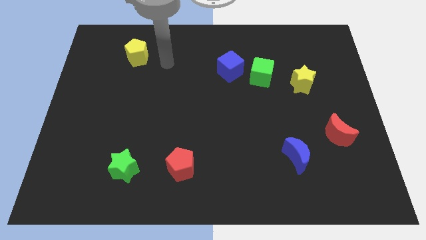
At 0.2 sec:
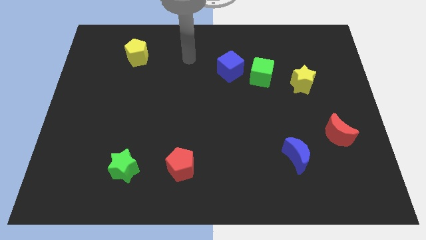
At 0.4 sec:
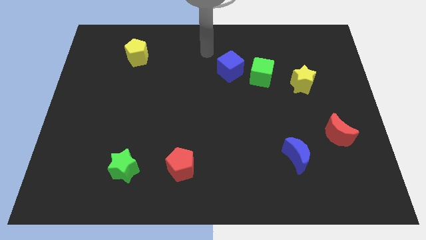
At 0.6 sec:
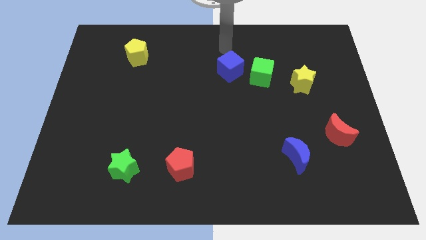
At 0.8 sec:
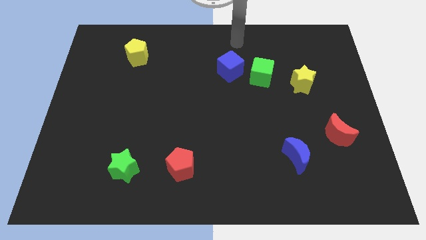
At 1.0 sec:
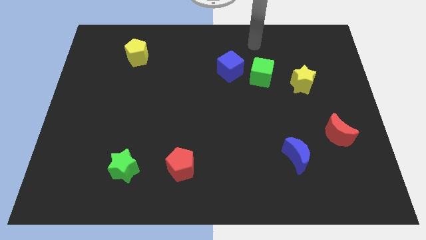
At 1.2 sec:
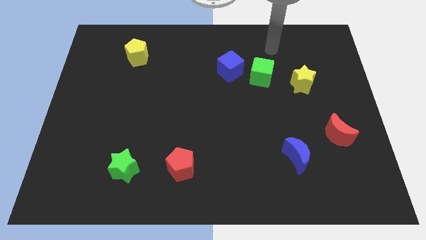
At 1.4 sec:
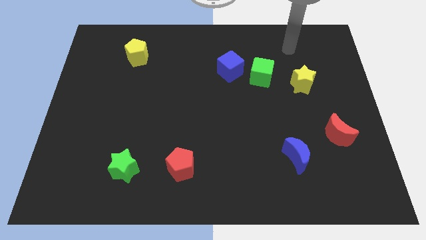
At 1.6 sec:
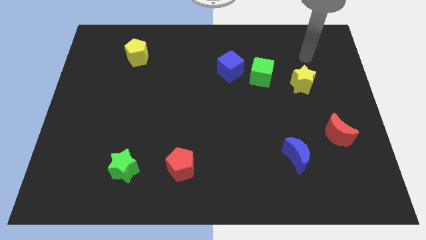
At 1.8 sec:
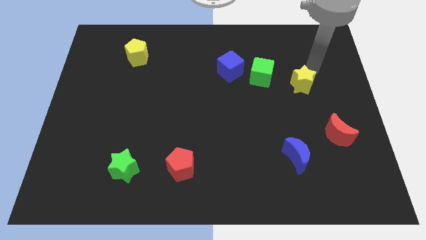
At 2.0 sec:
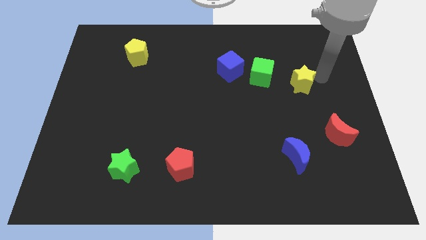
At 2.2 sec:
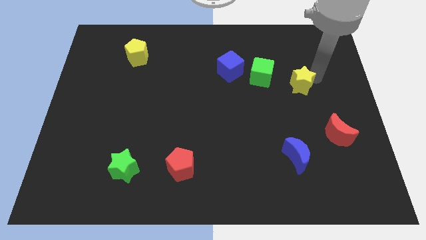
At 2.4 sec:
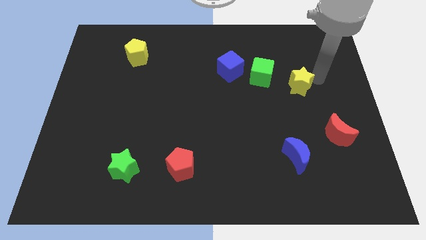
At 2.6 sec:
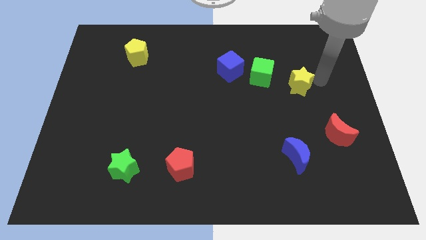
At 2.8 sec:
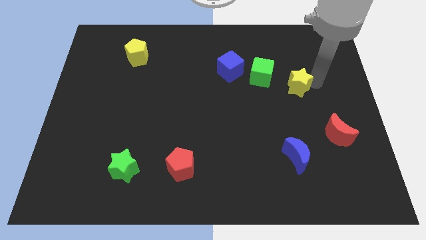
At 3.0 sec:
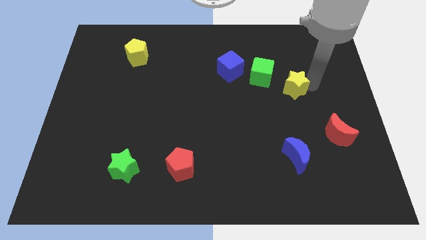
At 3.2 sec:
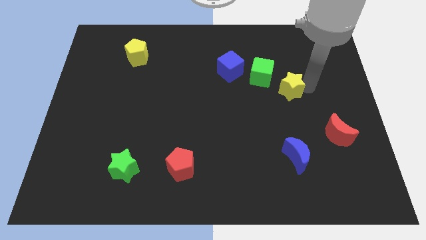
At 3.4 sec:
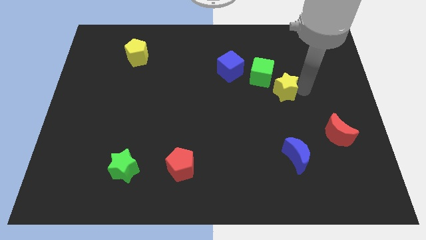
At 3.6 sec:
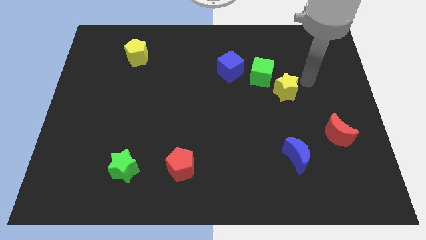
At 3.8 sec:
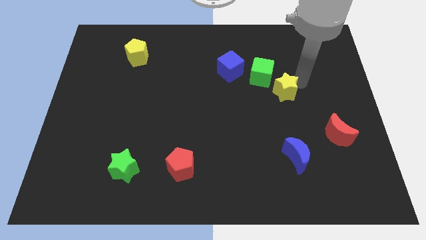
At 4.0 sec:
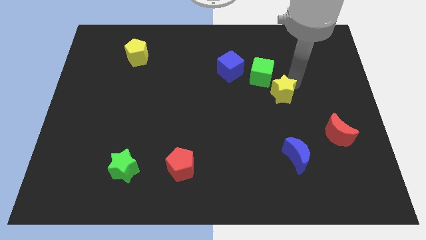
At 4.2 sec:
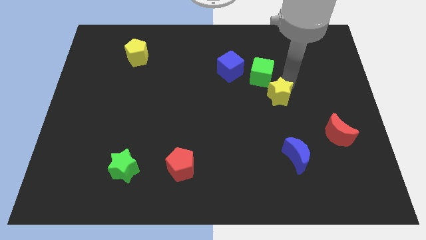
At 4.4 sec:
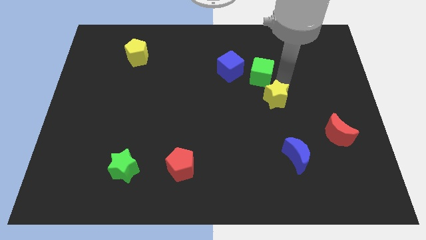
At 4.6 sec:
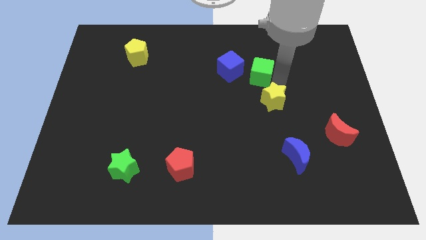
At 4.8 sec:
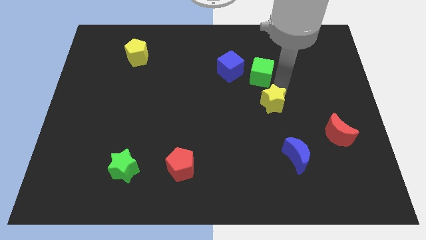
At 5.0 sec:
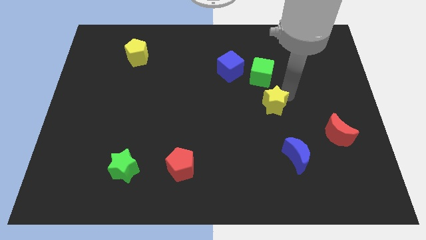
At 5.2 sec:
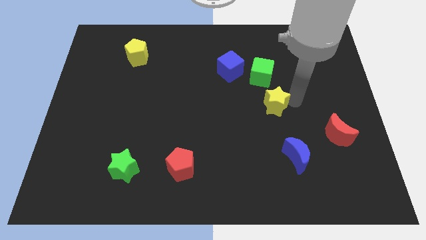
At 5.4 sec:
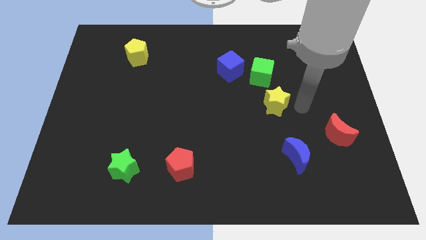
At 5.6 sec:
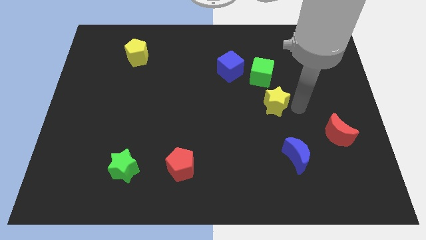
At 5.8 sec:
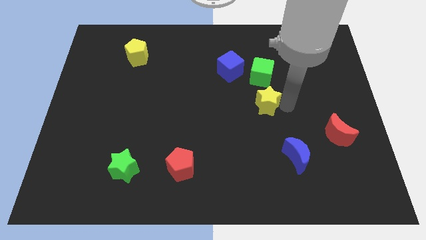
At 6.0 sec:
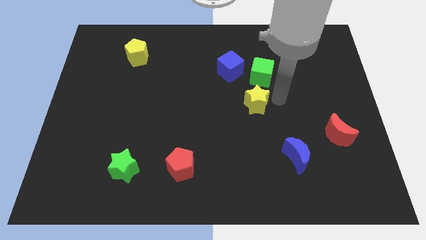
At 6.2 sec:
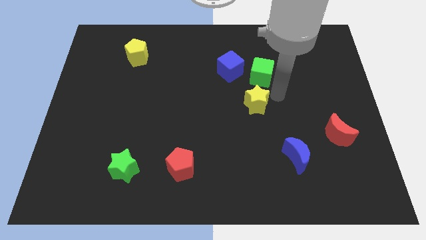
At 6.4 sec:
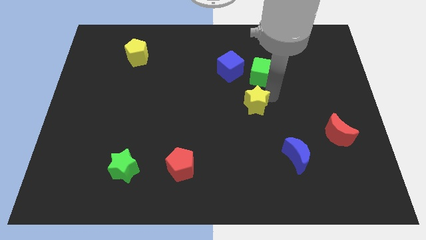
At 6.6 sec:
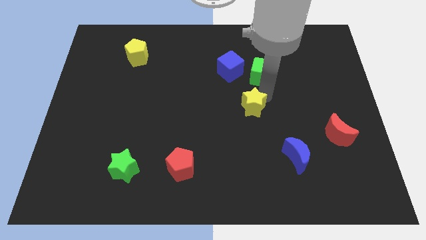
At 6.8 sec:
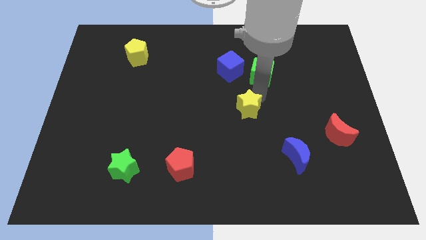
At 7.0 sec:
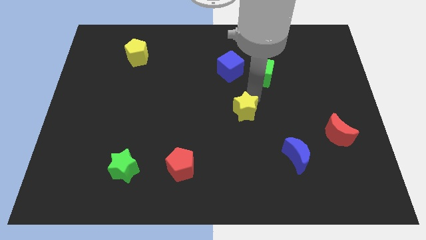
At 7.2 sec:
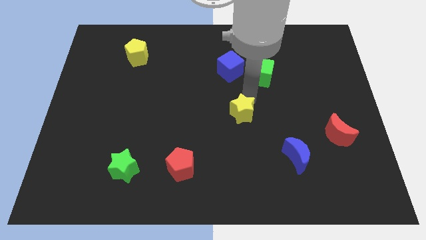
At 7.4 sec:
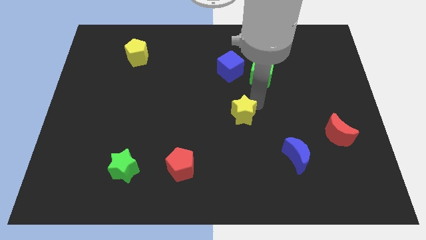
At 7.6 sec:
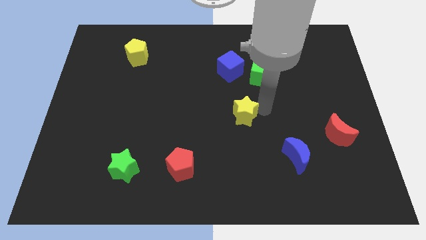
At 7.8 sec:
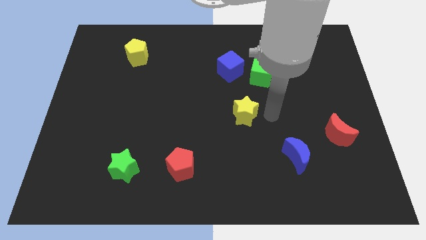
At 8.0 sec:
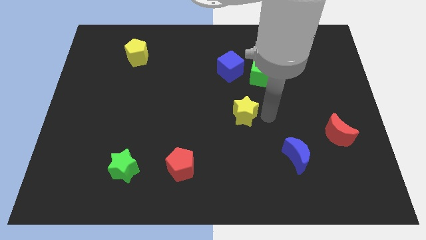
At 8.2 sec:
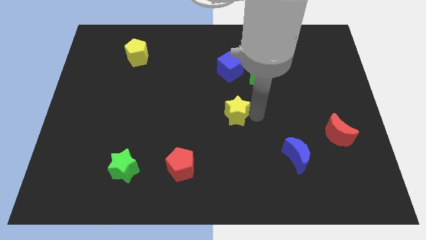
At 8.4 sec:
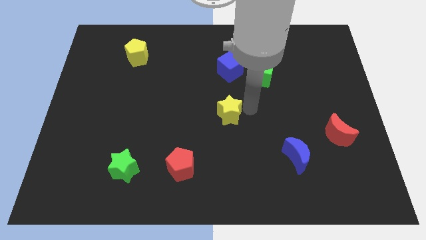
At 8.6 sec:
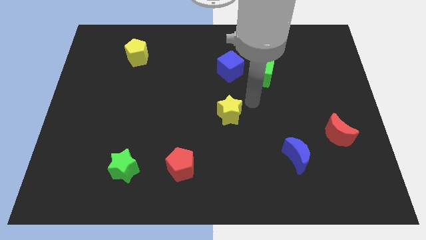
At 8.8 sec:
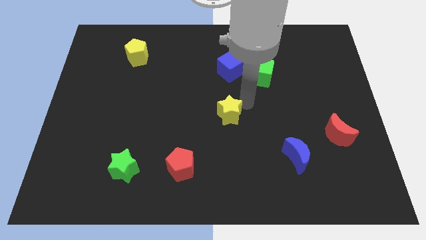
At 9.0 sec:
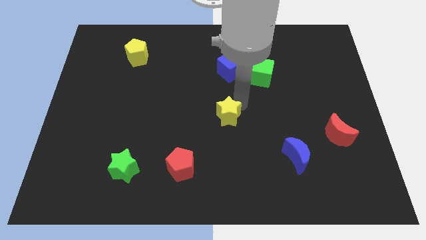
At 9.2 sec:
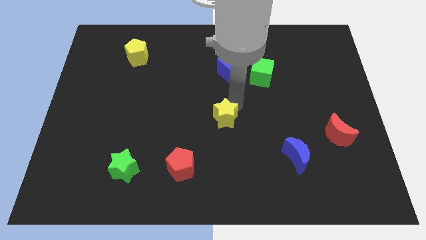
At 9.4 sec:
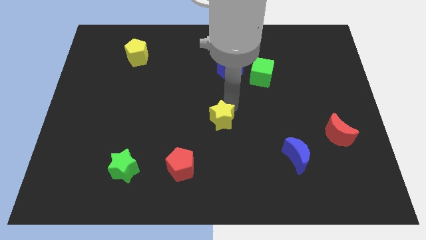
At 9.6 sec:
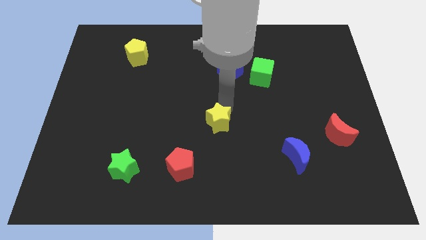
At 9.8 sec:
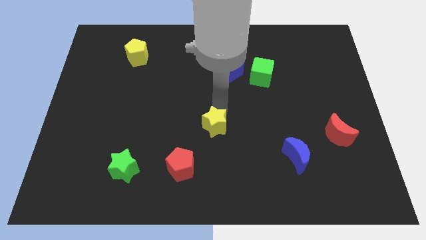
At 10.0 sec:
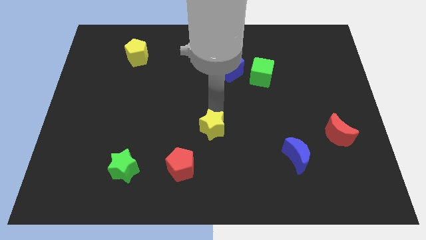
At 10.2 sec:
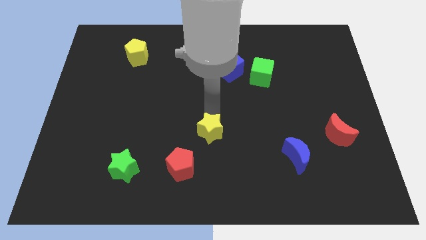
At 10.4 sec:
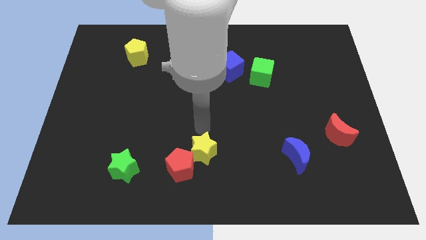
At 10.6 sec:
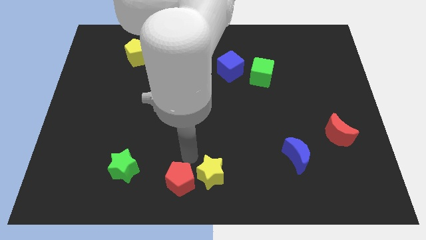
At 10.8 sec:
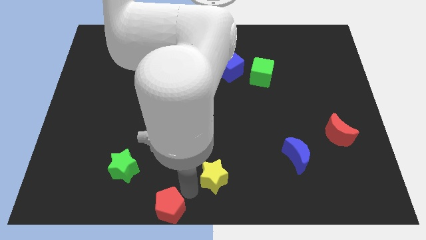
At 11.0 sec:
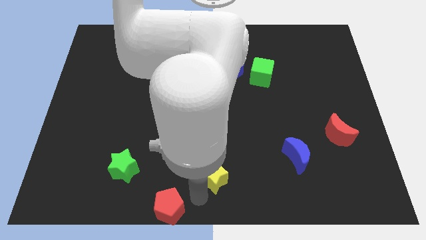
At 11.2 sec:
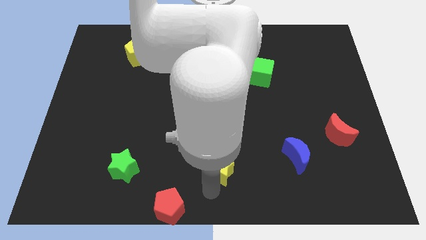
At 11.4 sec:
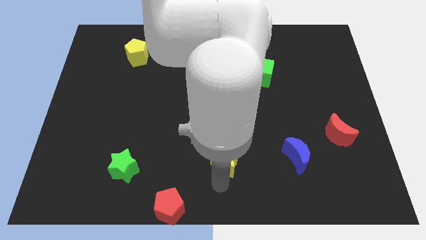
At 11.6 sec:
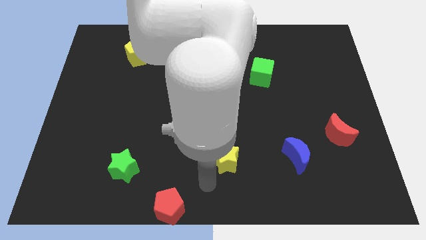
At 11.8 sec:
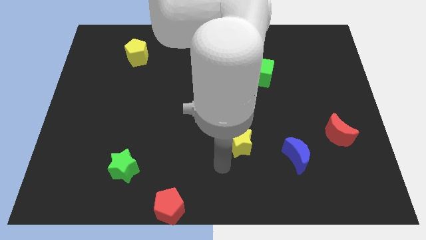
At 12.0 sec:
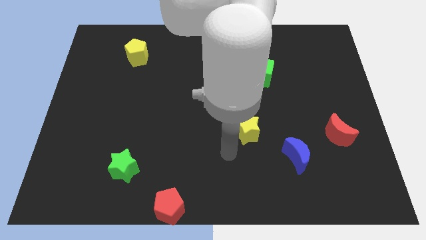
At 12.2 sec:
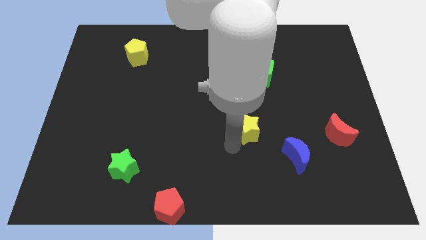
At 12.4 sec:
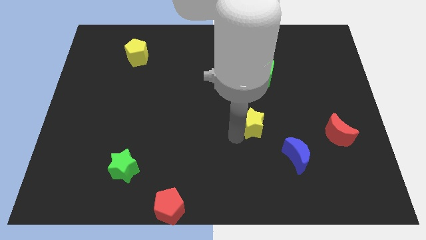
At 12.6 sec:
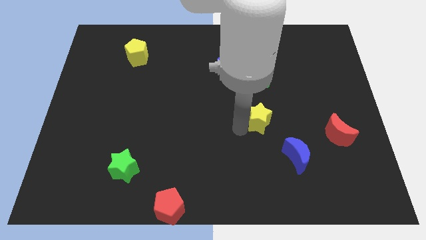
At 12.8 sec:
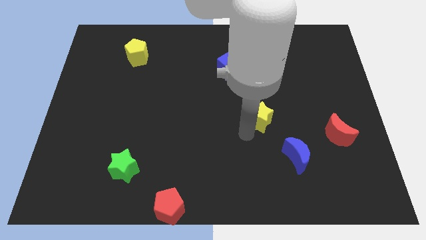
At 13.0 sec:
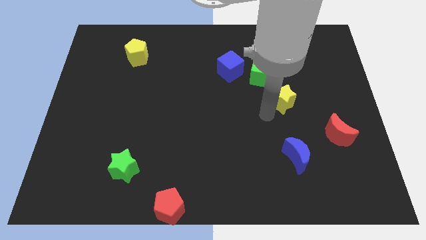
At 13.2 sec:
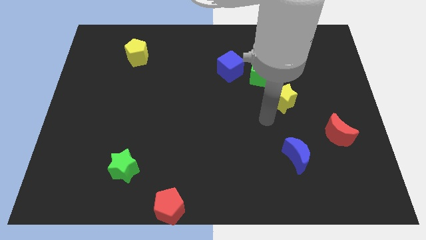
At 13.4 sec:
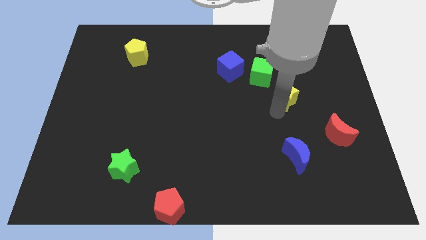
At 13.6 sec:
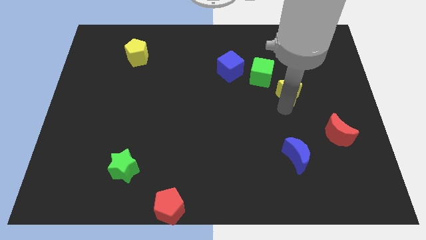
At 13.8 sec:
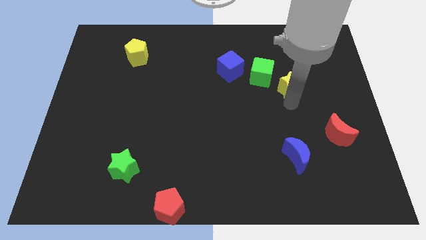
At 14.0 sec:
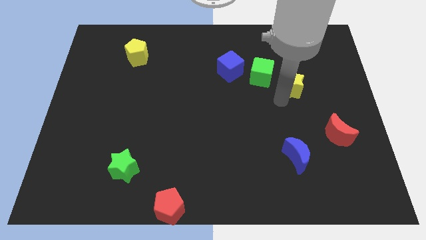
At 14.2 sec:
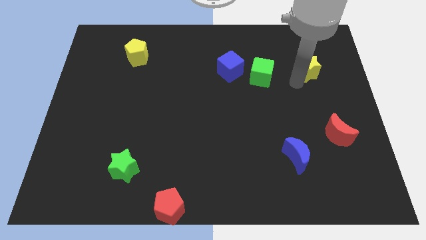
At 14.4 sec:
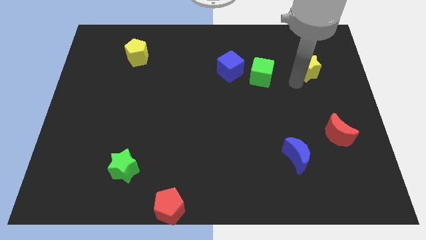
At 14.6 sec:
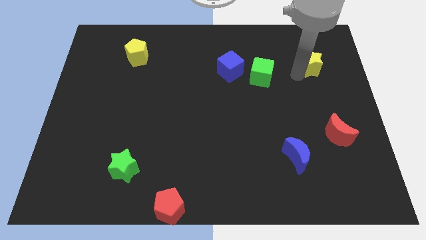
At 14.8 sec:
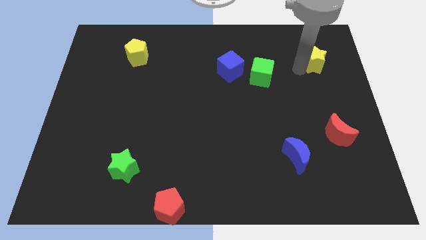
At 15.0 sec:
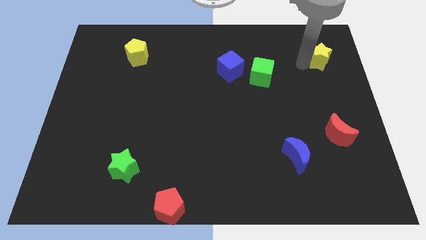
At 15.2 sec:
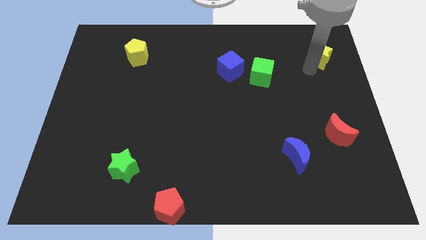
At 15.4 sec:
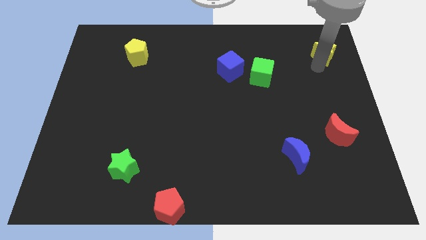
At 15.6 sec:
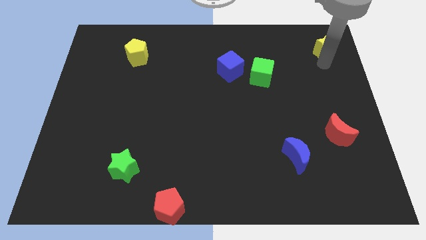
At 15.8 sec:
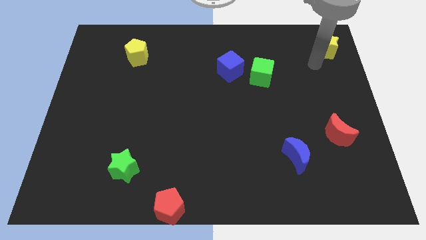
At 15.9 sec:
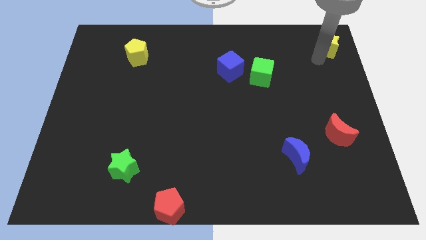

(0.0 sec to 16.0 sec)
slide the yellow star to the top right corner
